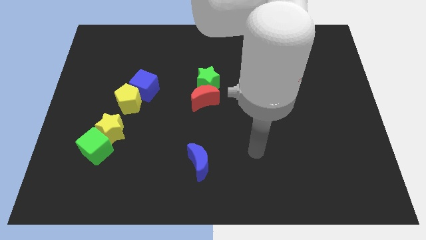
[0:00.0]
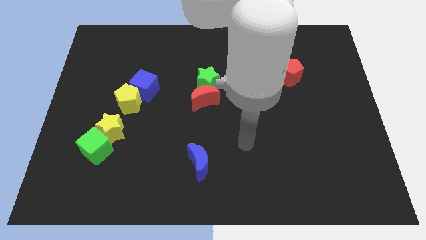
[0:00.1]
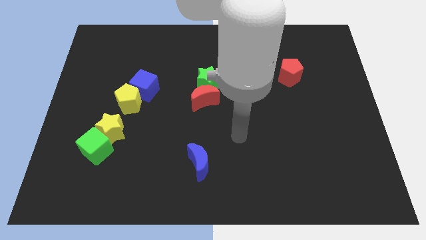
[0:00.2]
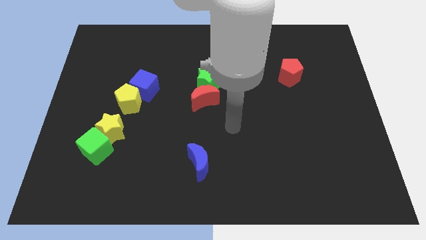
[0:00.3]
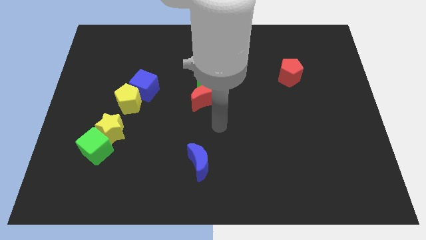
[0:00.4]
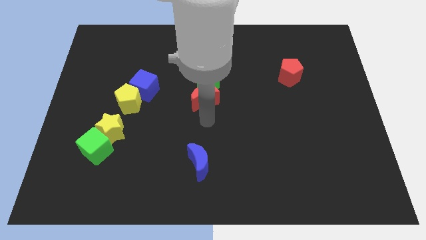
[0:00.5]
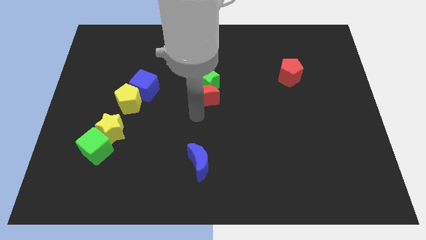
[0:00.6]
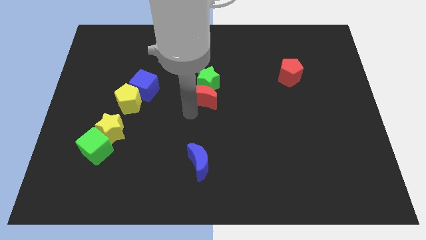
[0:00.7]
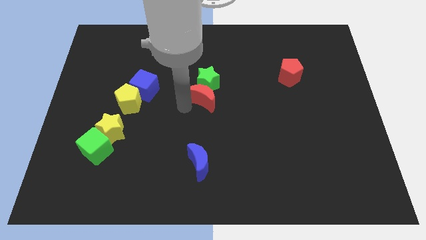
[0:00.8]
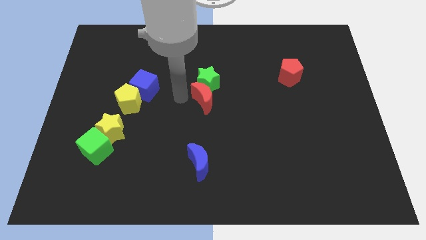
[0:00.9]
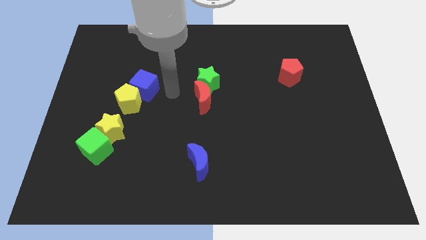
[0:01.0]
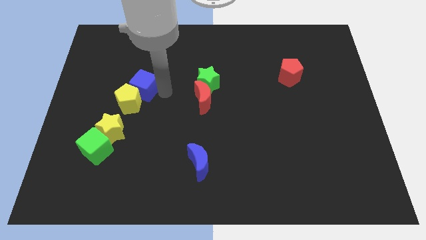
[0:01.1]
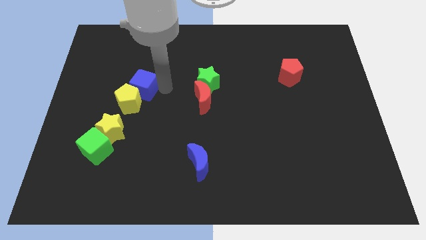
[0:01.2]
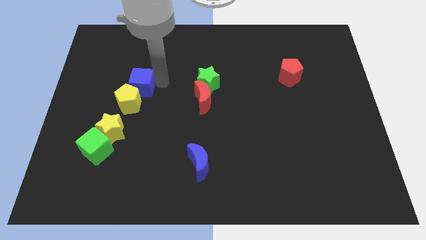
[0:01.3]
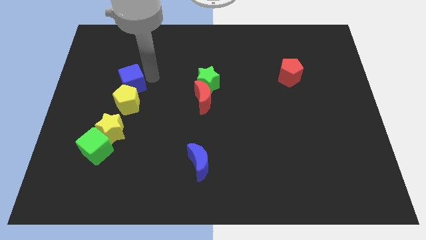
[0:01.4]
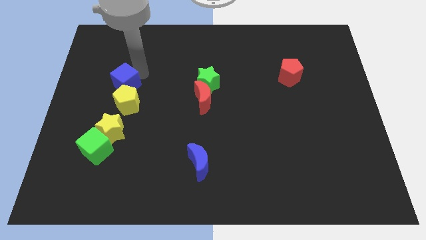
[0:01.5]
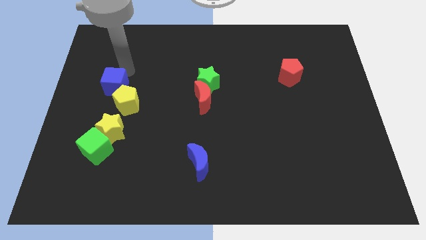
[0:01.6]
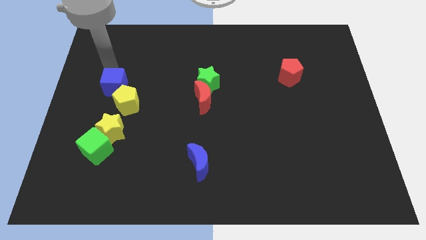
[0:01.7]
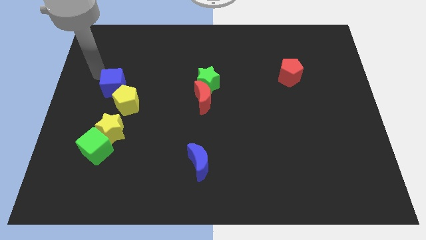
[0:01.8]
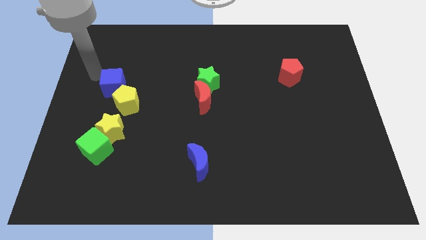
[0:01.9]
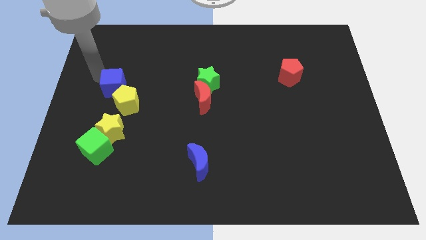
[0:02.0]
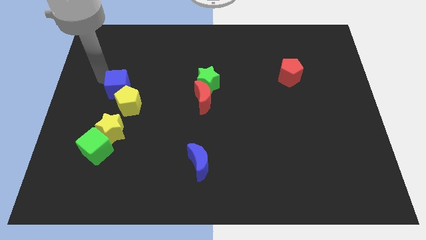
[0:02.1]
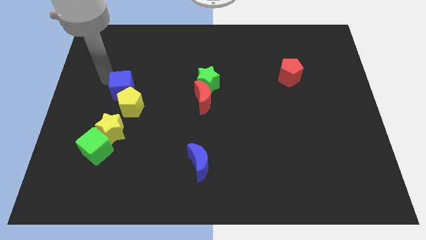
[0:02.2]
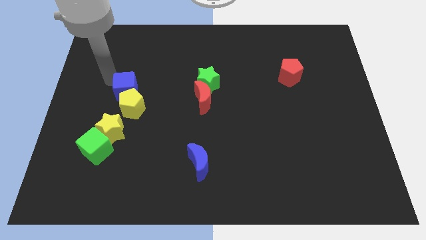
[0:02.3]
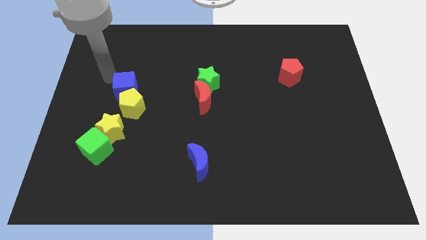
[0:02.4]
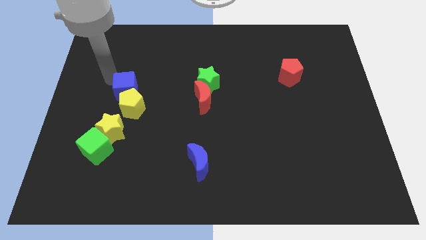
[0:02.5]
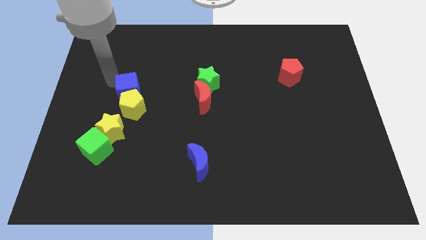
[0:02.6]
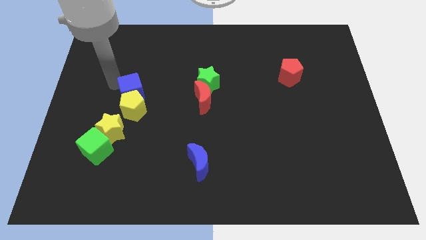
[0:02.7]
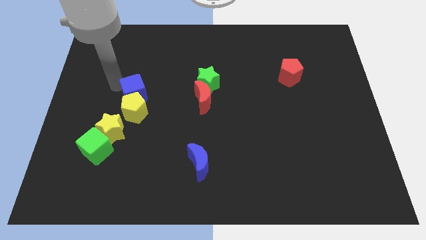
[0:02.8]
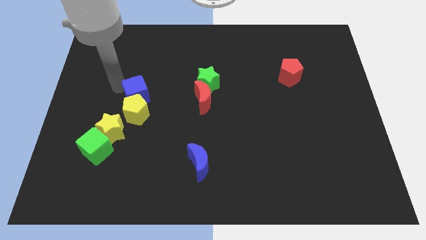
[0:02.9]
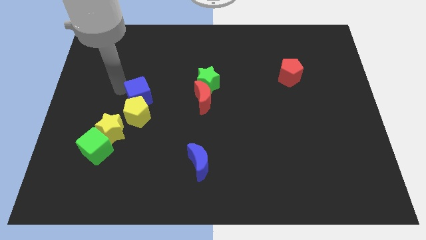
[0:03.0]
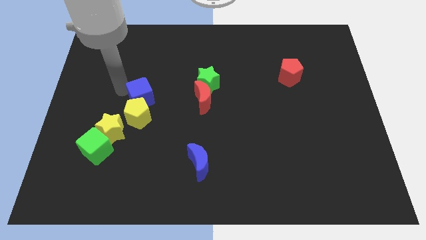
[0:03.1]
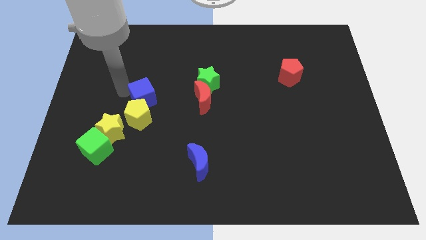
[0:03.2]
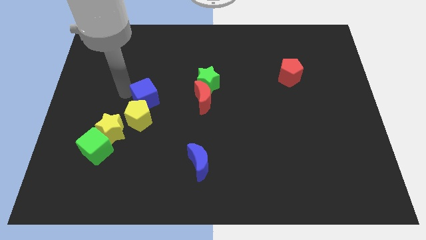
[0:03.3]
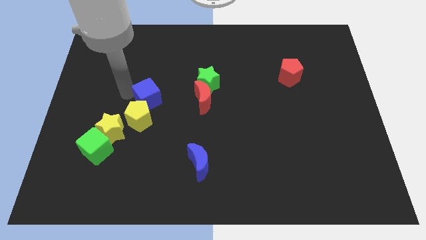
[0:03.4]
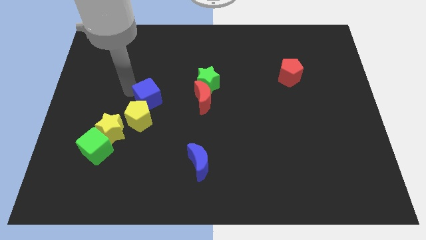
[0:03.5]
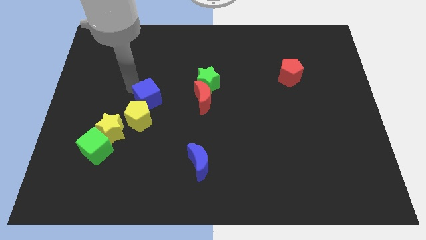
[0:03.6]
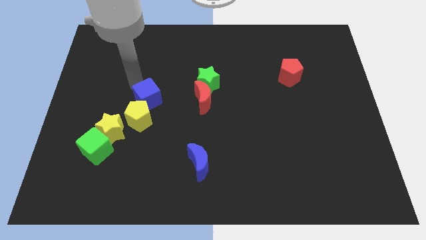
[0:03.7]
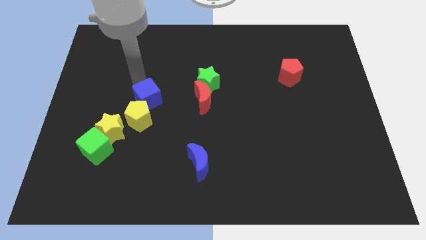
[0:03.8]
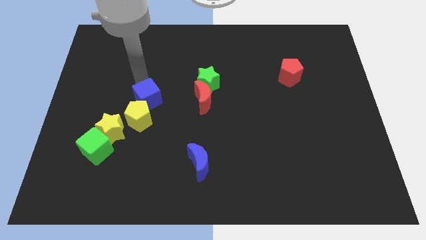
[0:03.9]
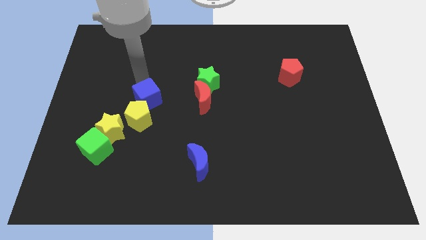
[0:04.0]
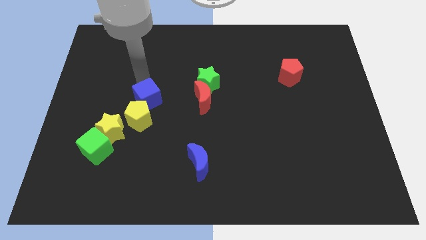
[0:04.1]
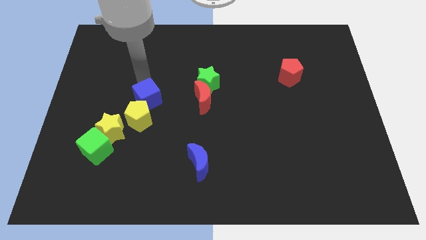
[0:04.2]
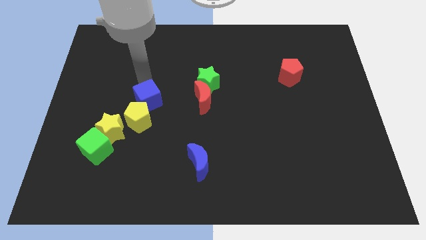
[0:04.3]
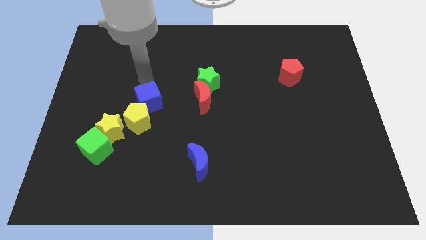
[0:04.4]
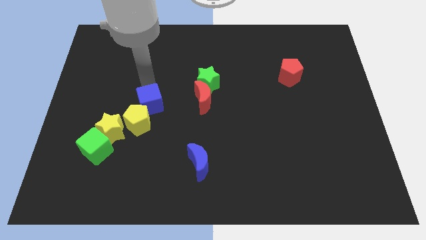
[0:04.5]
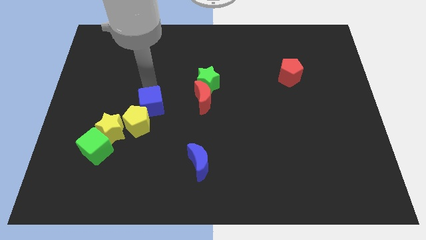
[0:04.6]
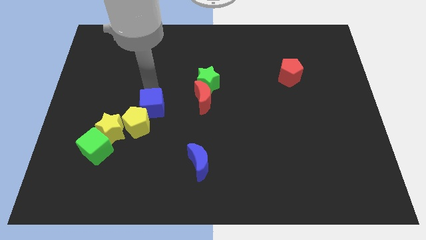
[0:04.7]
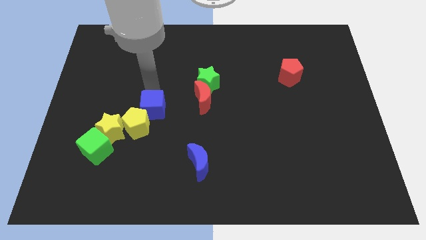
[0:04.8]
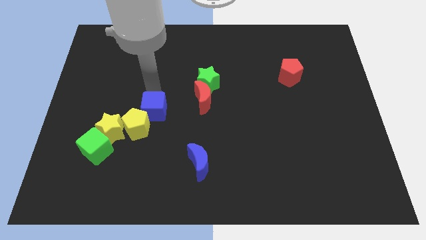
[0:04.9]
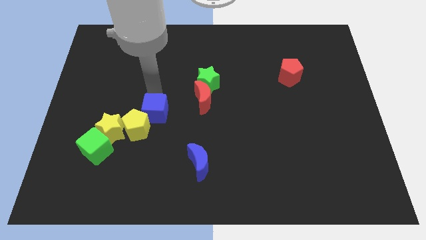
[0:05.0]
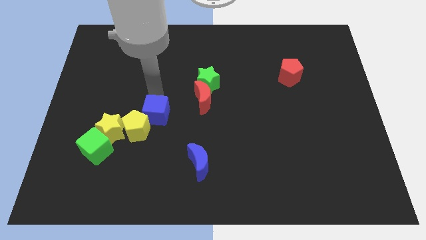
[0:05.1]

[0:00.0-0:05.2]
move the blue cube down somewhat

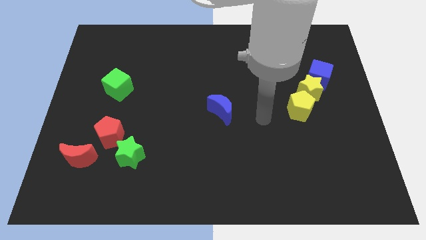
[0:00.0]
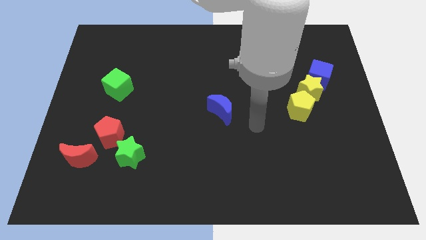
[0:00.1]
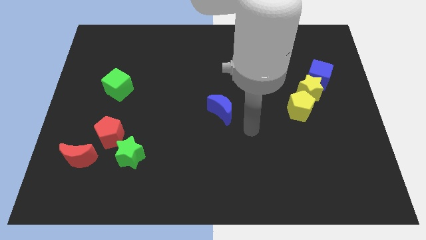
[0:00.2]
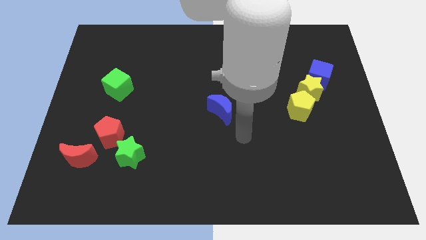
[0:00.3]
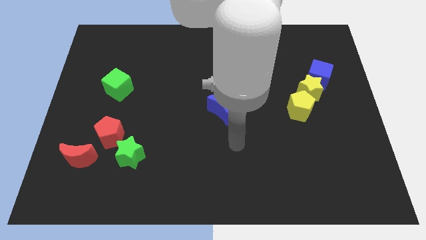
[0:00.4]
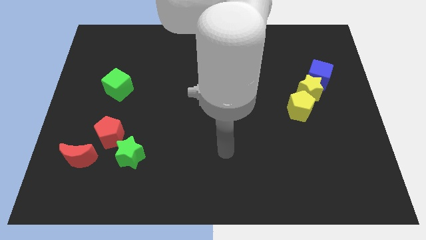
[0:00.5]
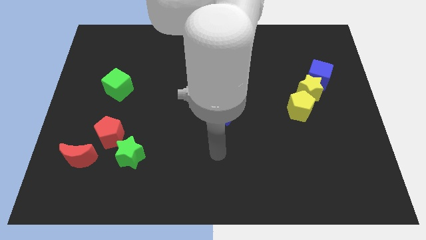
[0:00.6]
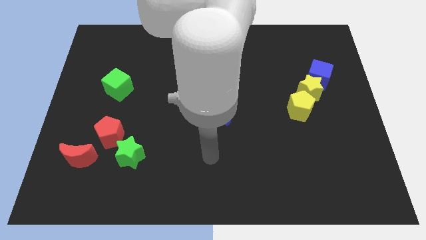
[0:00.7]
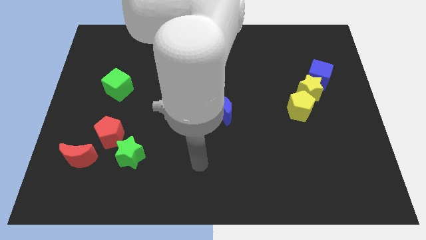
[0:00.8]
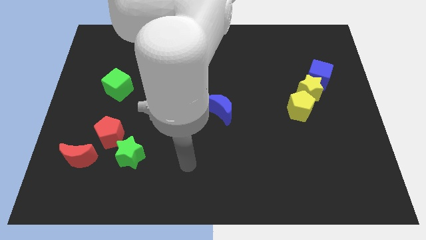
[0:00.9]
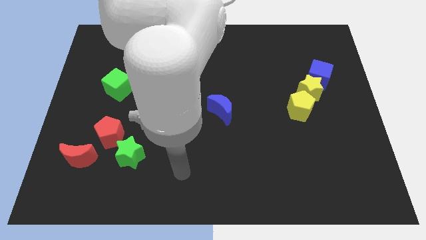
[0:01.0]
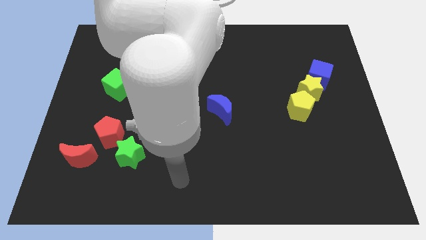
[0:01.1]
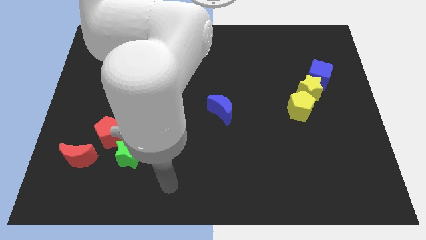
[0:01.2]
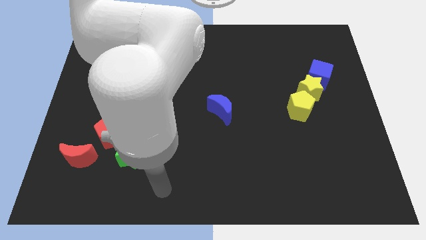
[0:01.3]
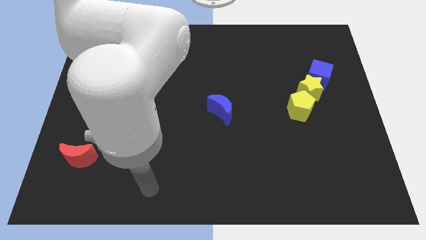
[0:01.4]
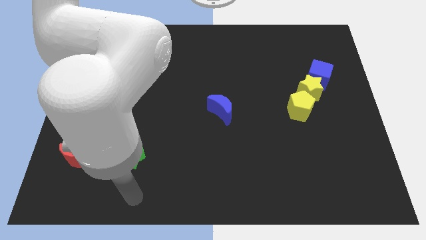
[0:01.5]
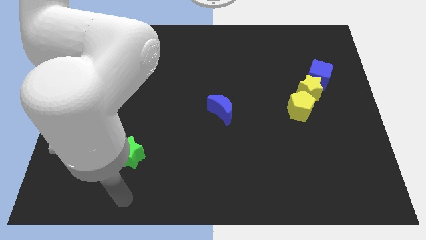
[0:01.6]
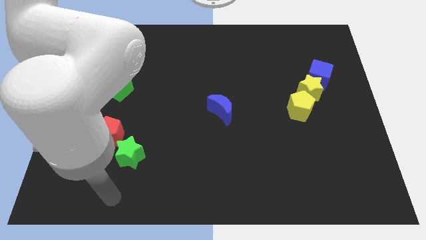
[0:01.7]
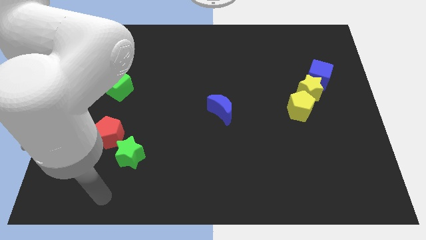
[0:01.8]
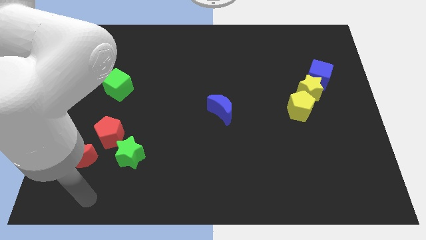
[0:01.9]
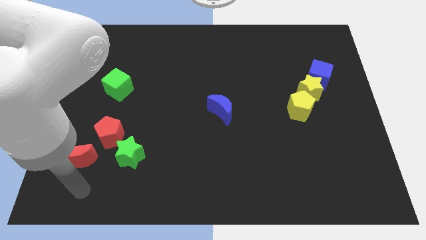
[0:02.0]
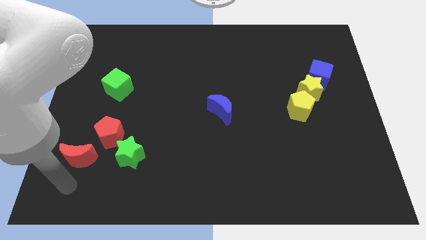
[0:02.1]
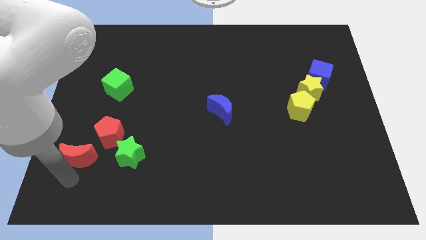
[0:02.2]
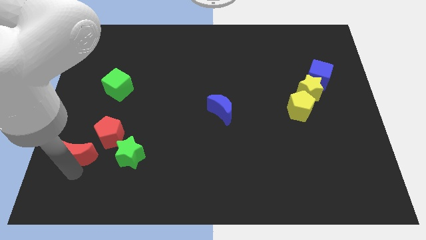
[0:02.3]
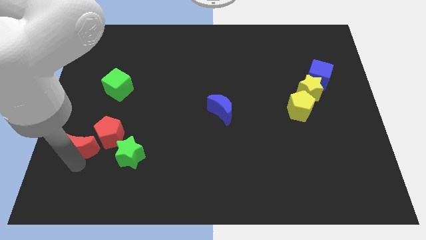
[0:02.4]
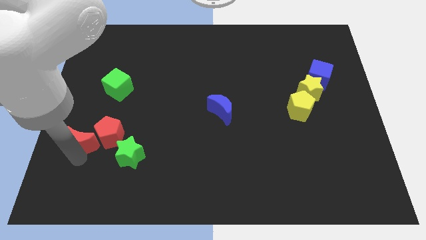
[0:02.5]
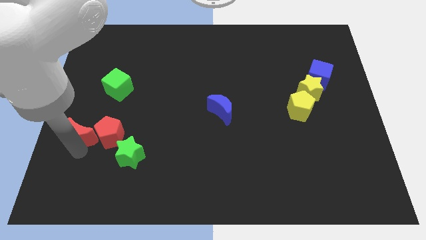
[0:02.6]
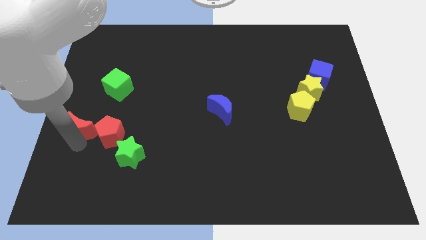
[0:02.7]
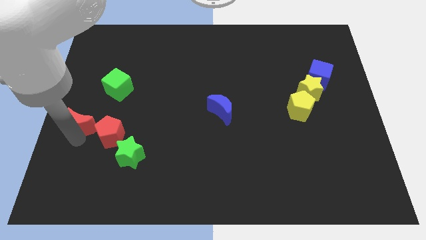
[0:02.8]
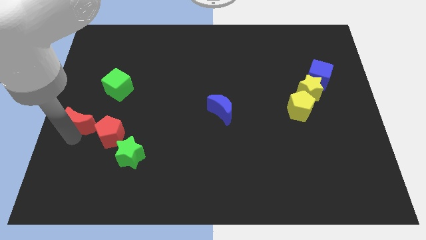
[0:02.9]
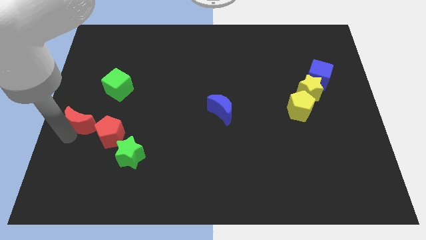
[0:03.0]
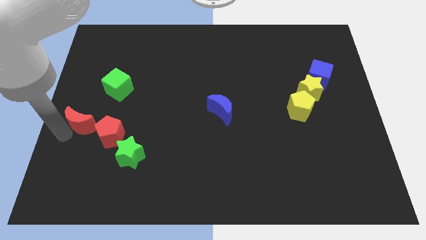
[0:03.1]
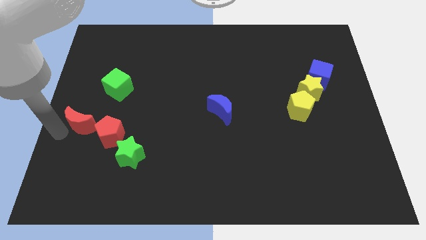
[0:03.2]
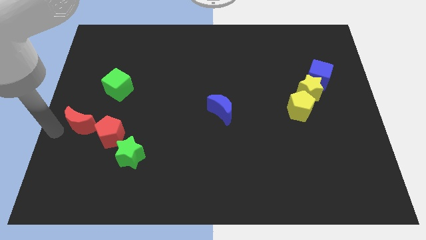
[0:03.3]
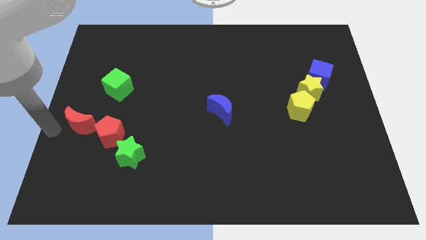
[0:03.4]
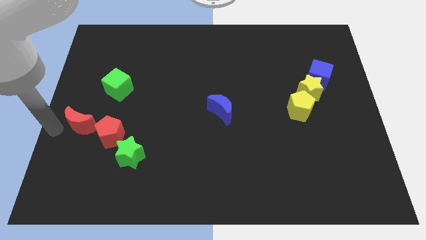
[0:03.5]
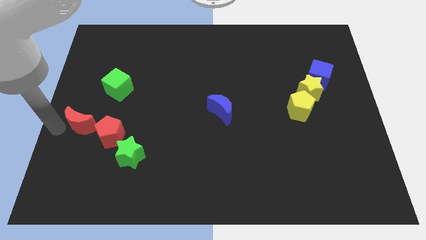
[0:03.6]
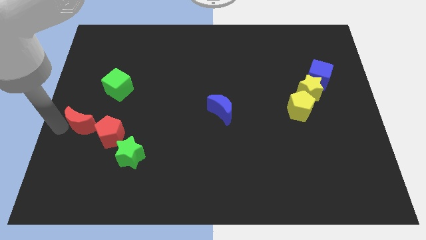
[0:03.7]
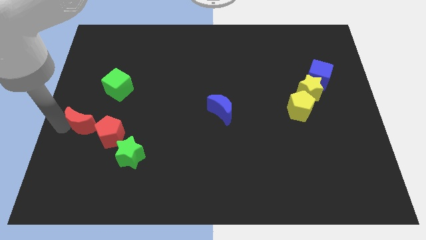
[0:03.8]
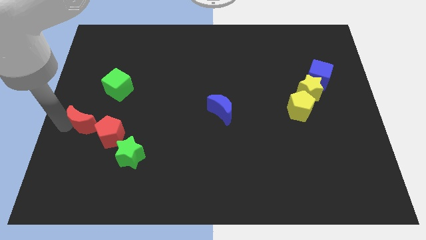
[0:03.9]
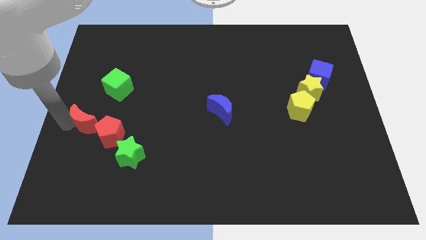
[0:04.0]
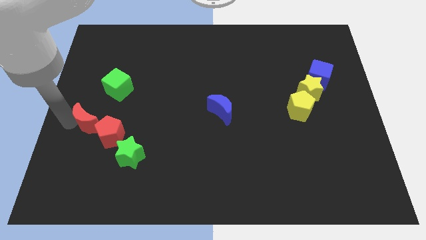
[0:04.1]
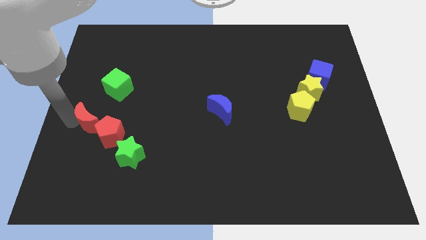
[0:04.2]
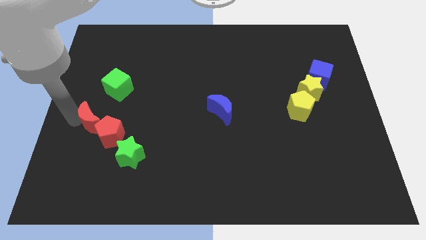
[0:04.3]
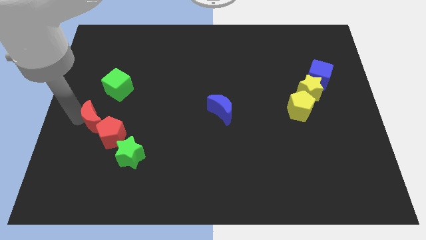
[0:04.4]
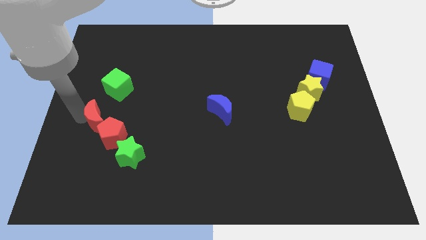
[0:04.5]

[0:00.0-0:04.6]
slide the red moon a bit upwards and to the right
